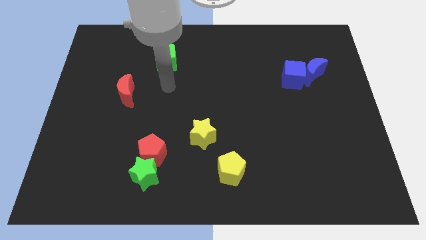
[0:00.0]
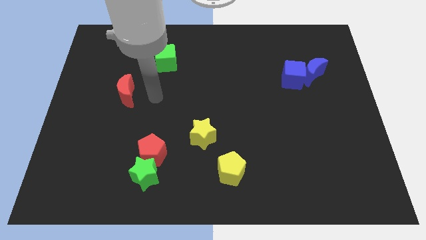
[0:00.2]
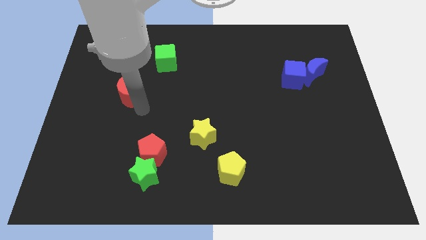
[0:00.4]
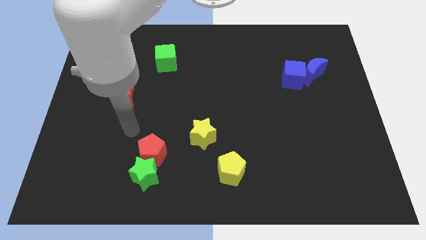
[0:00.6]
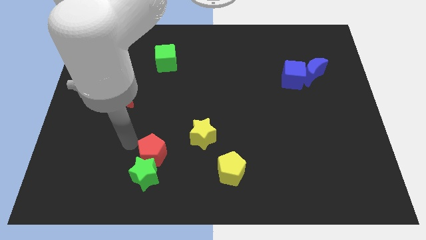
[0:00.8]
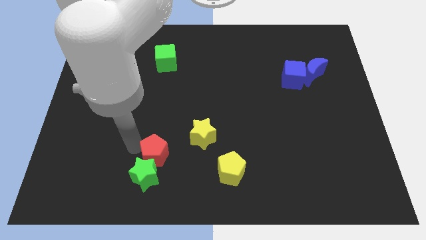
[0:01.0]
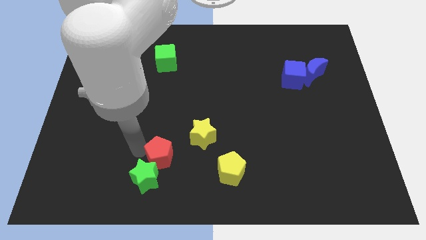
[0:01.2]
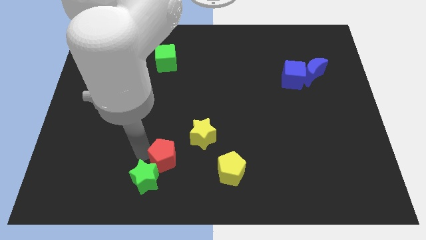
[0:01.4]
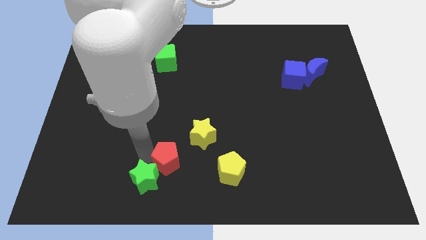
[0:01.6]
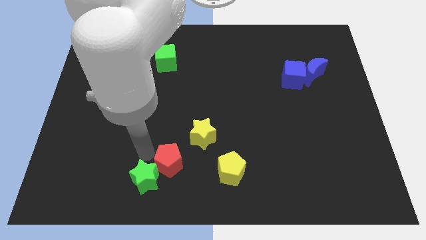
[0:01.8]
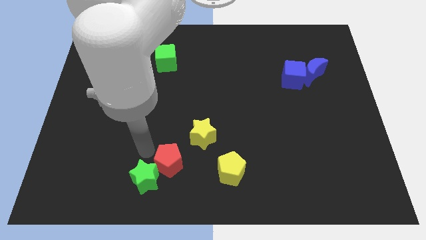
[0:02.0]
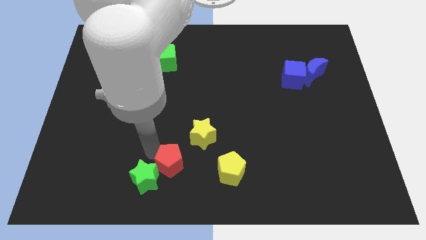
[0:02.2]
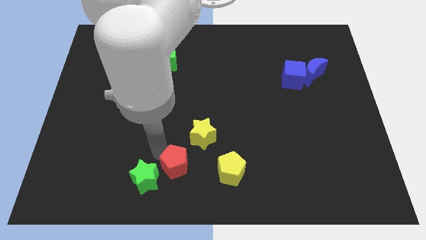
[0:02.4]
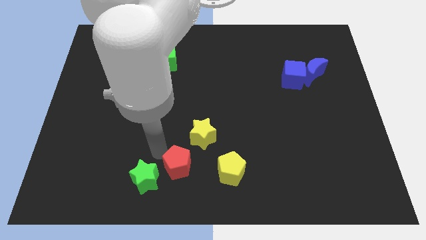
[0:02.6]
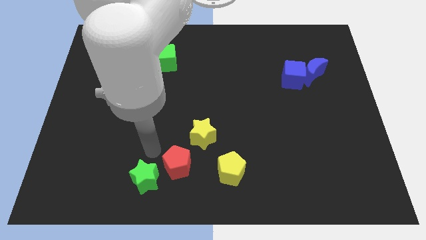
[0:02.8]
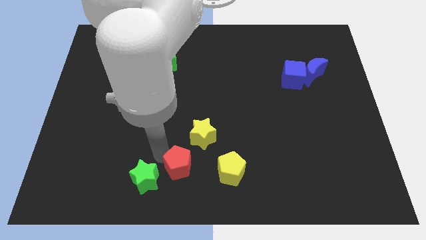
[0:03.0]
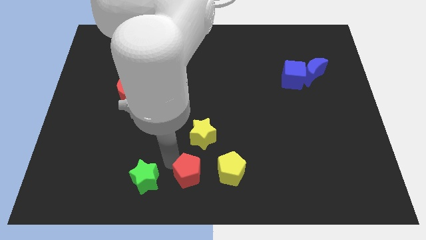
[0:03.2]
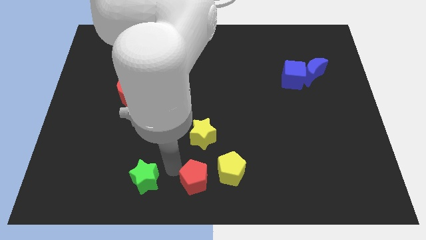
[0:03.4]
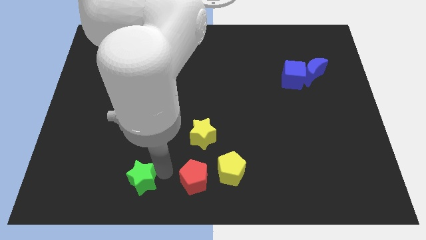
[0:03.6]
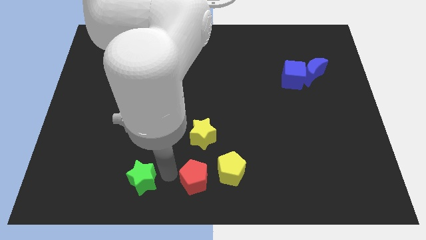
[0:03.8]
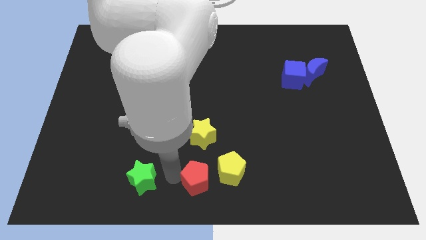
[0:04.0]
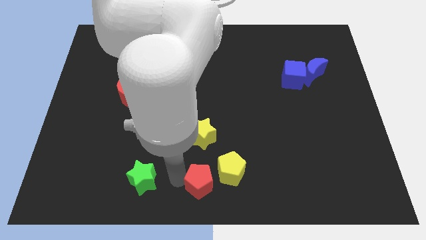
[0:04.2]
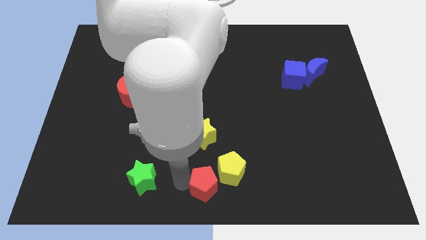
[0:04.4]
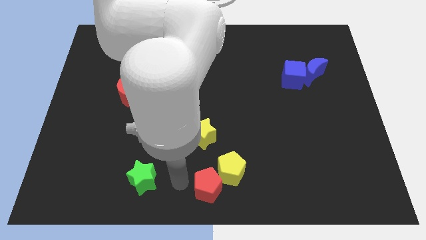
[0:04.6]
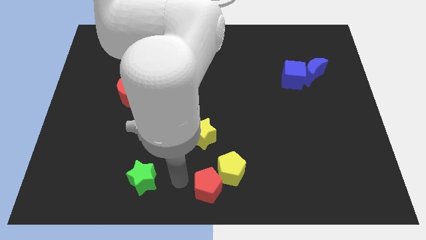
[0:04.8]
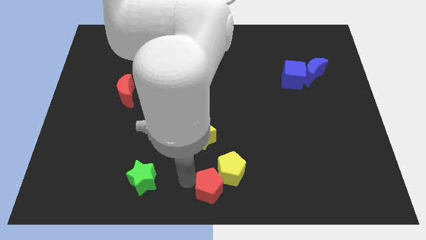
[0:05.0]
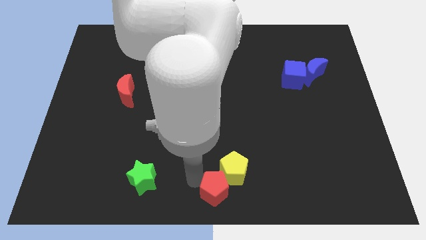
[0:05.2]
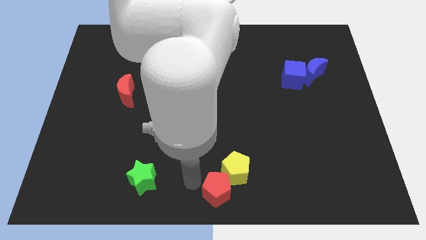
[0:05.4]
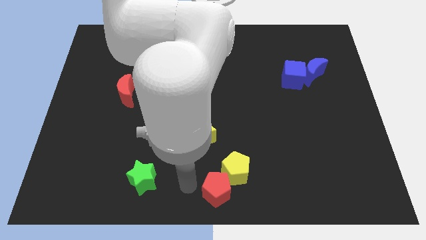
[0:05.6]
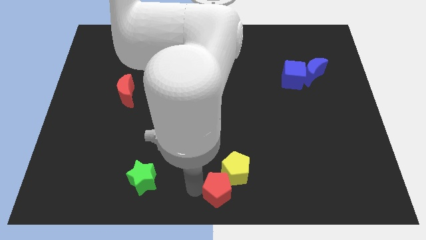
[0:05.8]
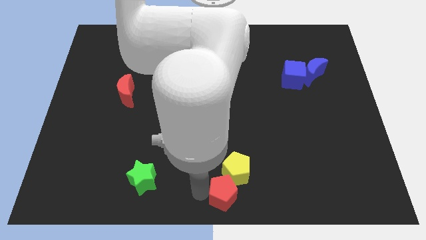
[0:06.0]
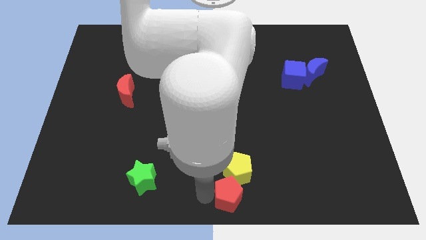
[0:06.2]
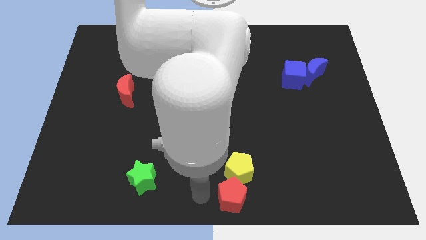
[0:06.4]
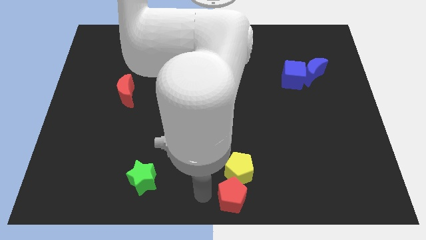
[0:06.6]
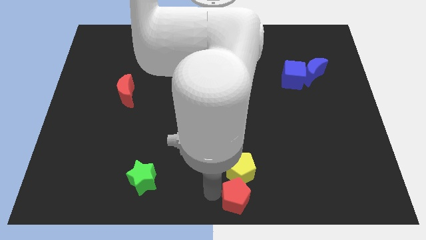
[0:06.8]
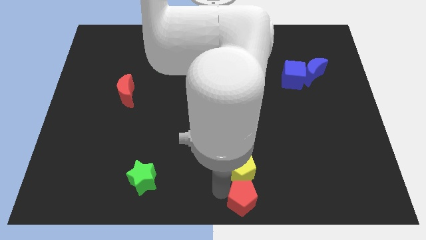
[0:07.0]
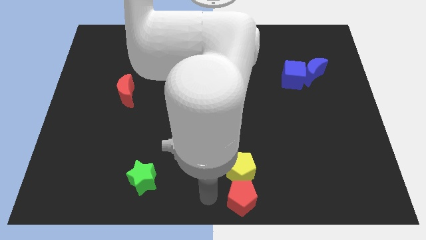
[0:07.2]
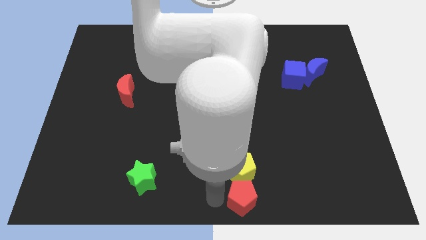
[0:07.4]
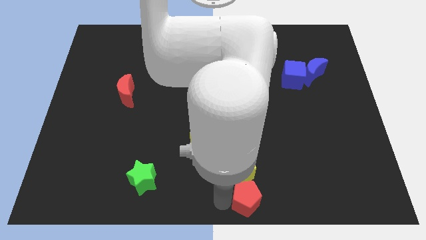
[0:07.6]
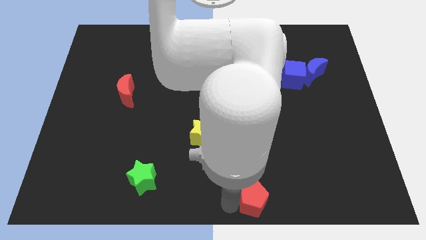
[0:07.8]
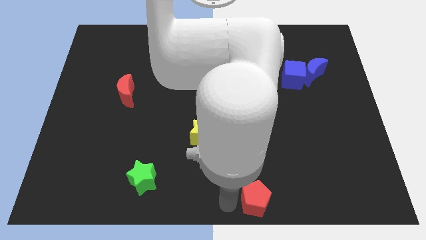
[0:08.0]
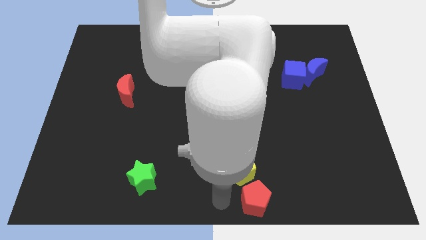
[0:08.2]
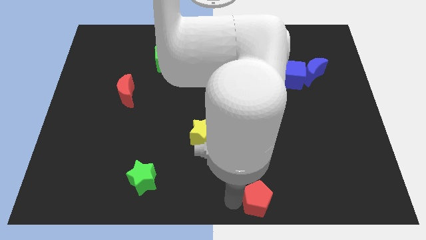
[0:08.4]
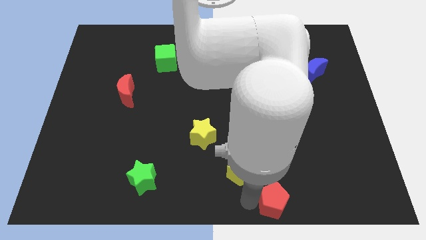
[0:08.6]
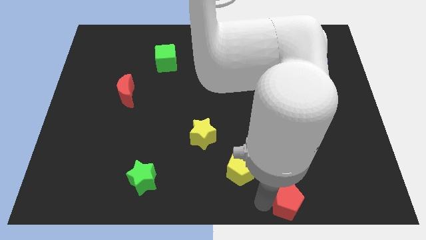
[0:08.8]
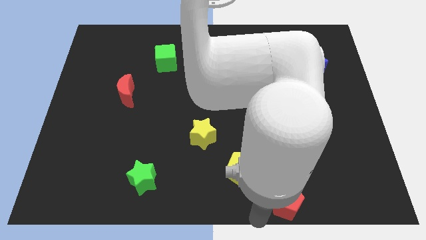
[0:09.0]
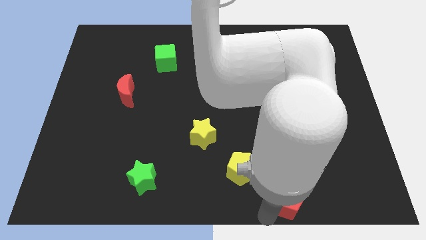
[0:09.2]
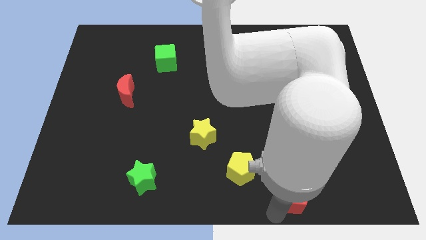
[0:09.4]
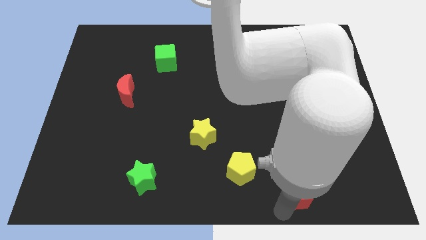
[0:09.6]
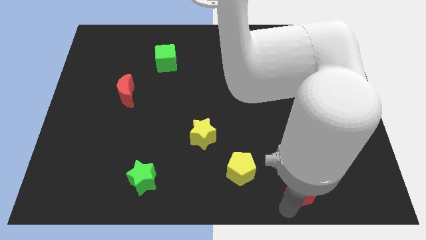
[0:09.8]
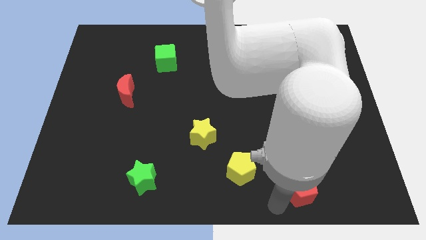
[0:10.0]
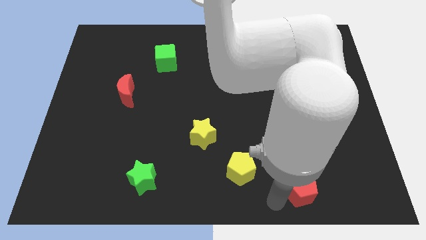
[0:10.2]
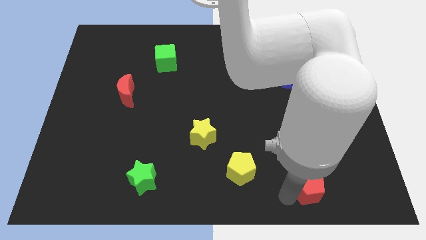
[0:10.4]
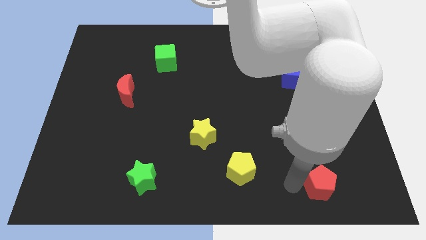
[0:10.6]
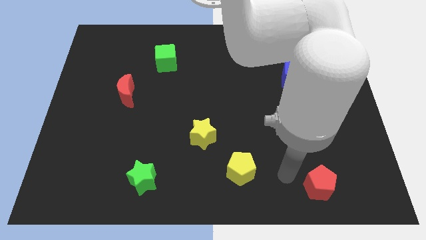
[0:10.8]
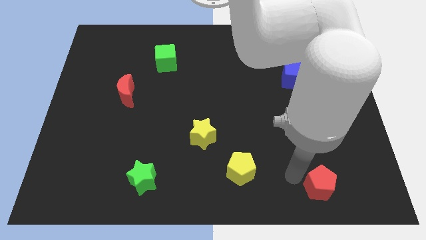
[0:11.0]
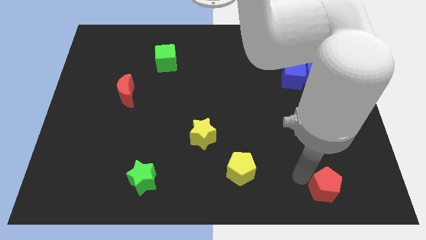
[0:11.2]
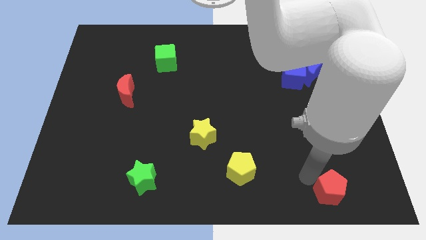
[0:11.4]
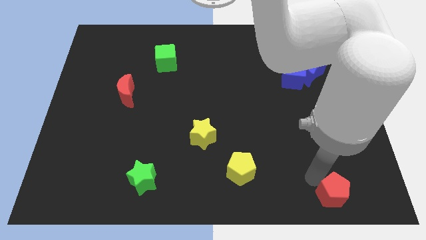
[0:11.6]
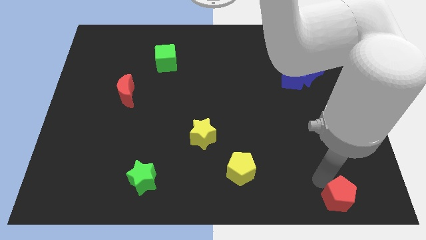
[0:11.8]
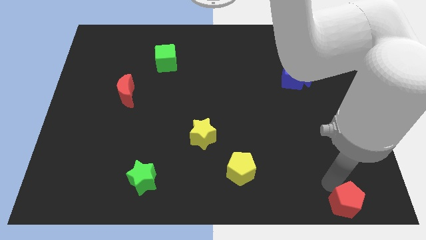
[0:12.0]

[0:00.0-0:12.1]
slide the red pentagon to the bottom right

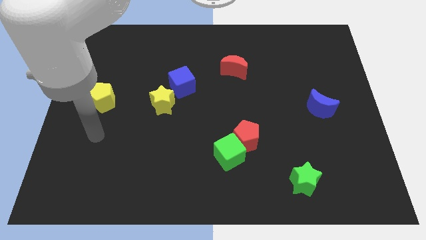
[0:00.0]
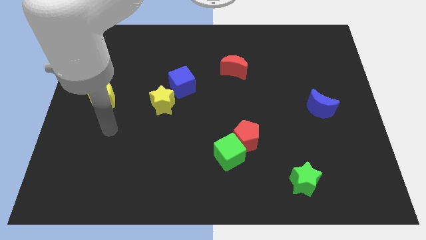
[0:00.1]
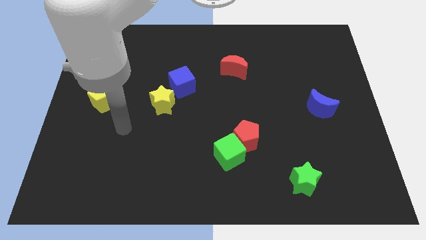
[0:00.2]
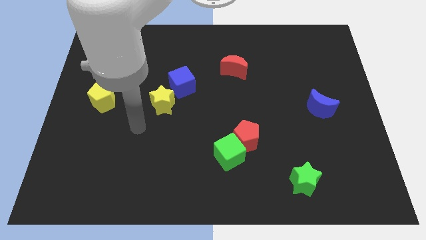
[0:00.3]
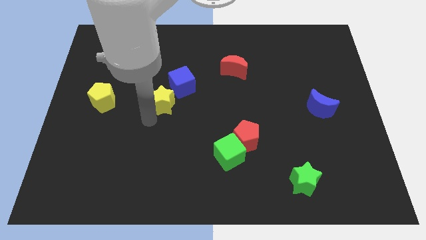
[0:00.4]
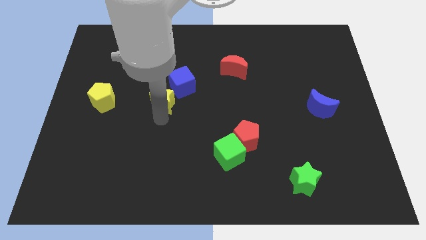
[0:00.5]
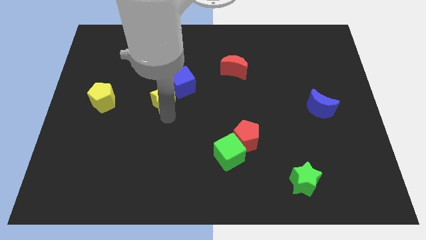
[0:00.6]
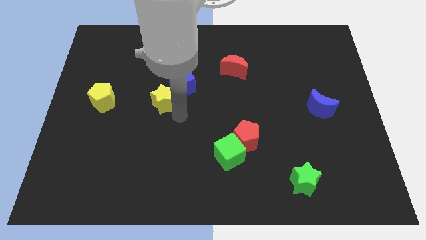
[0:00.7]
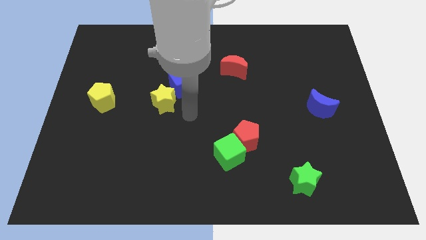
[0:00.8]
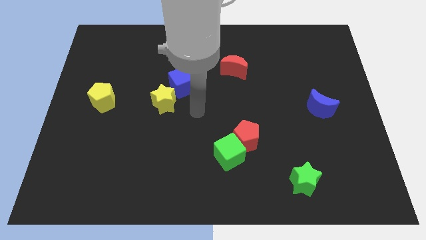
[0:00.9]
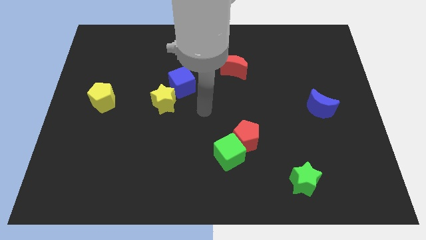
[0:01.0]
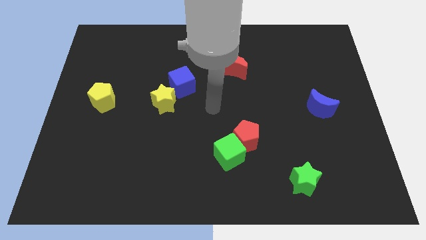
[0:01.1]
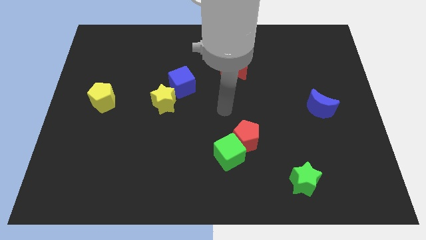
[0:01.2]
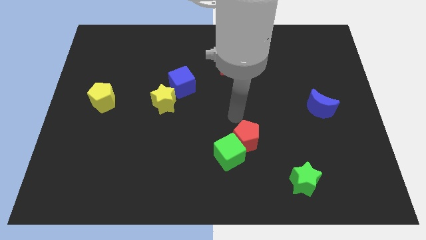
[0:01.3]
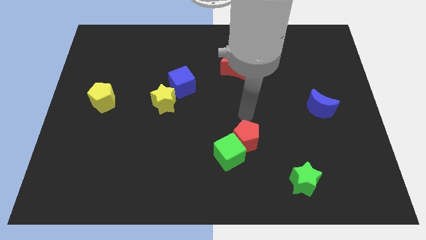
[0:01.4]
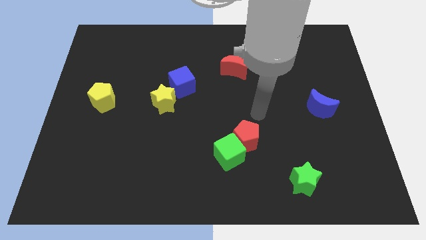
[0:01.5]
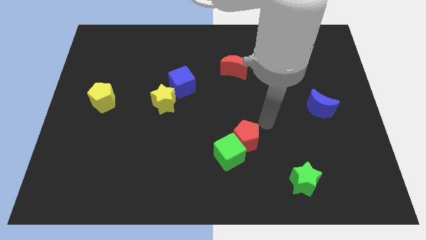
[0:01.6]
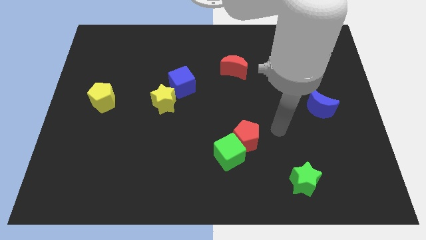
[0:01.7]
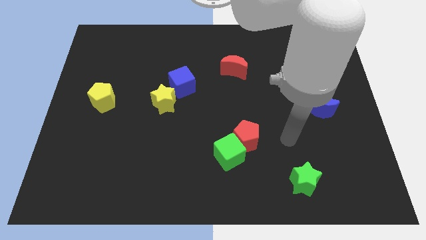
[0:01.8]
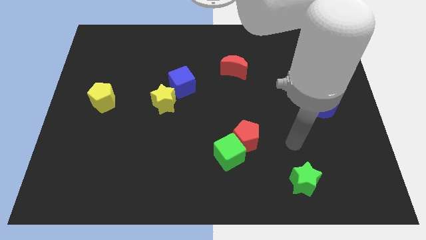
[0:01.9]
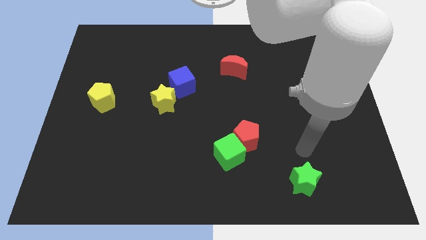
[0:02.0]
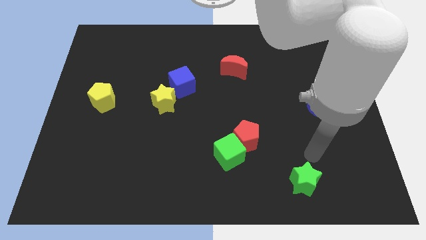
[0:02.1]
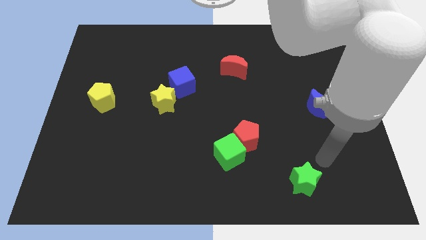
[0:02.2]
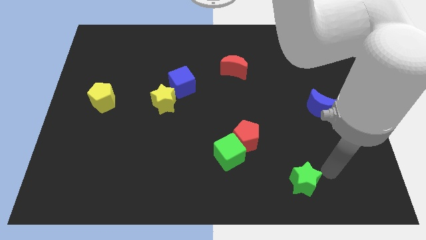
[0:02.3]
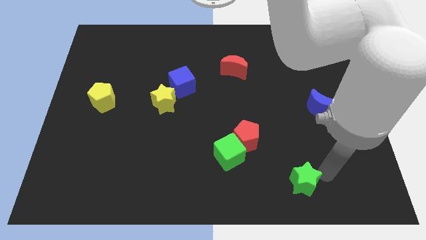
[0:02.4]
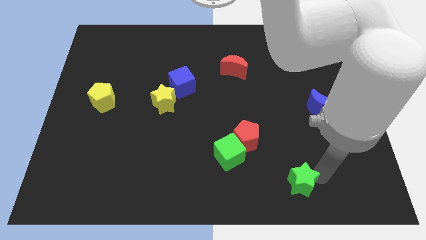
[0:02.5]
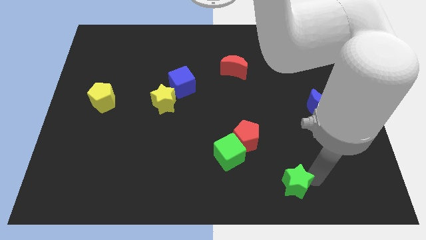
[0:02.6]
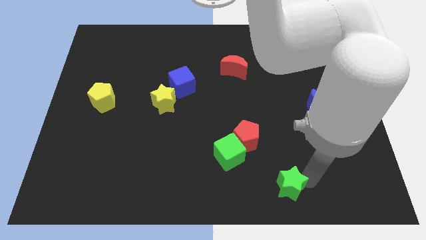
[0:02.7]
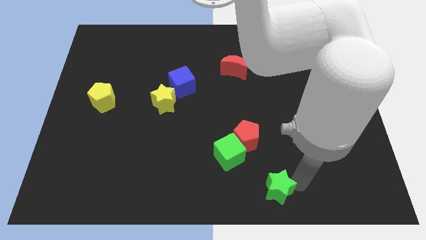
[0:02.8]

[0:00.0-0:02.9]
slide the green star to the bottom
